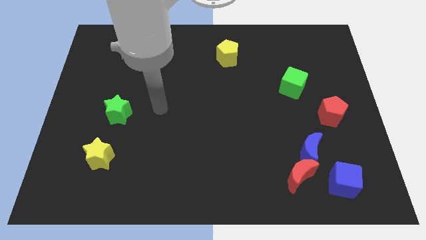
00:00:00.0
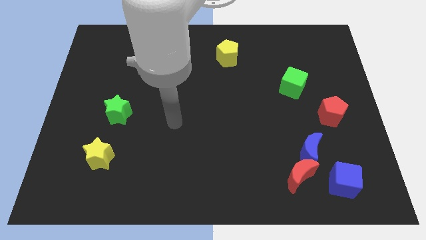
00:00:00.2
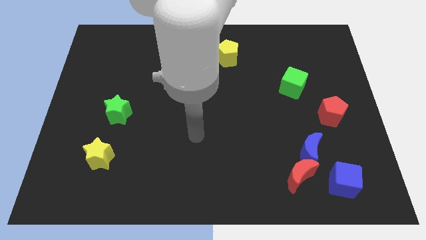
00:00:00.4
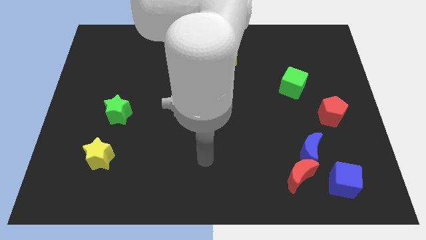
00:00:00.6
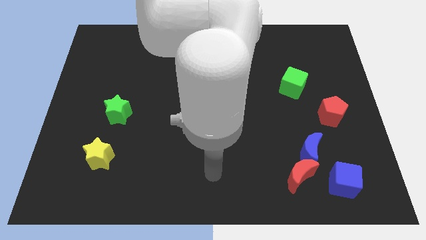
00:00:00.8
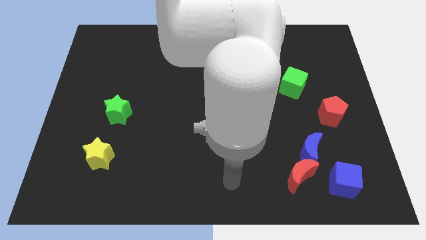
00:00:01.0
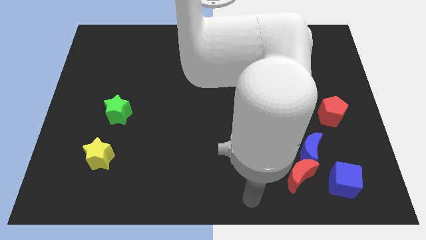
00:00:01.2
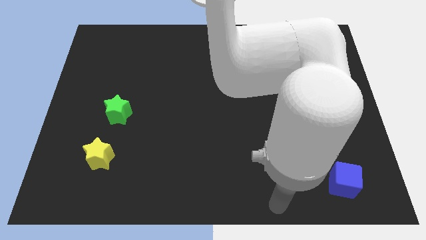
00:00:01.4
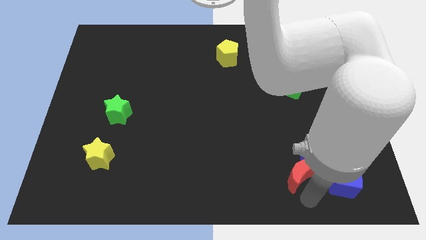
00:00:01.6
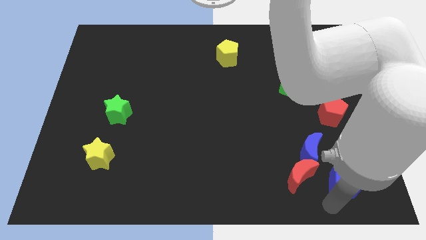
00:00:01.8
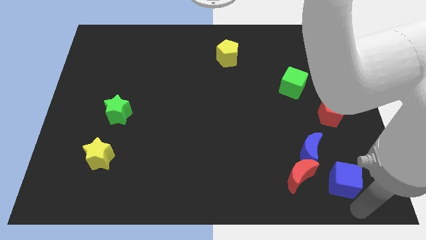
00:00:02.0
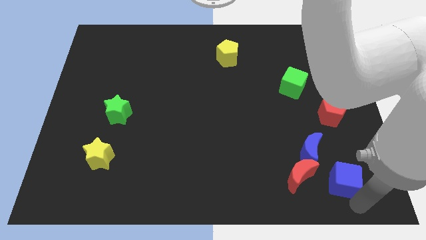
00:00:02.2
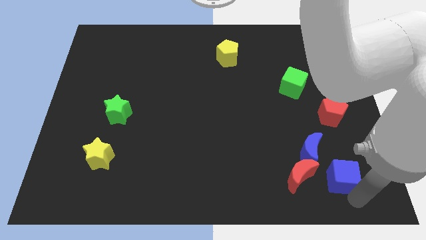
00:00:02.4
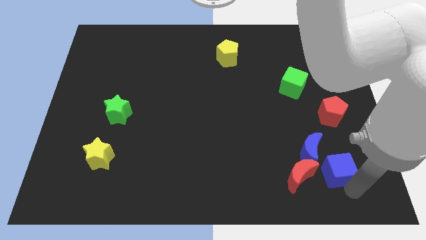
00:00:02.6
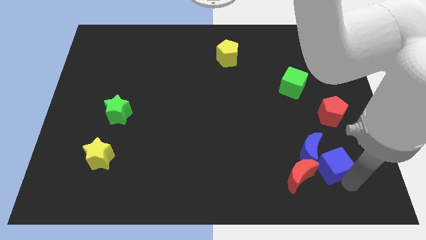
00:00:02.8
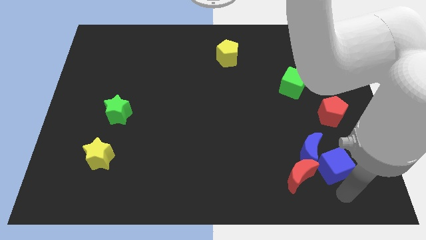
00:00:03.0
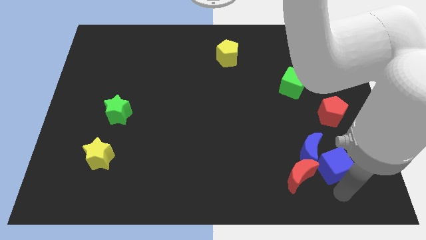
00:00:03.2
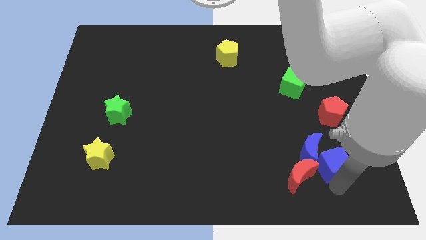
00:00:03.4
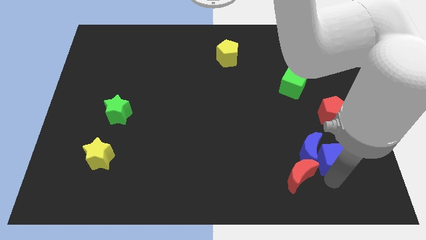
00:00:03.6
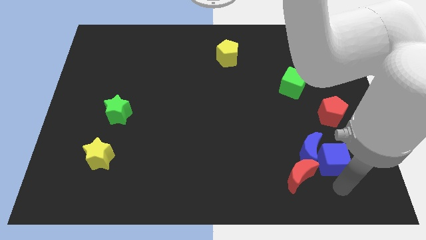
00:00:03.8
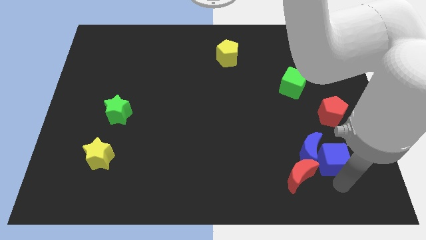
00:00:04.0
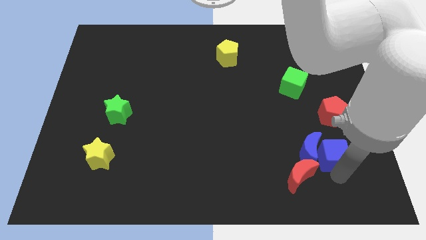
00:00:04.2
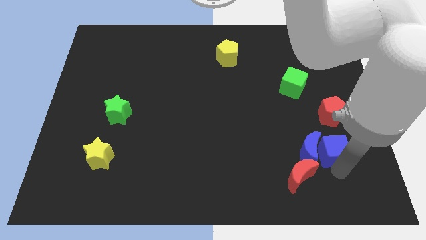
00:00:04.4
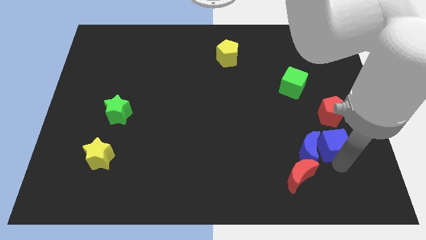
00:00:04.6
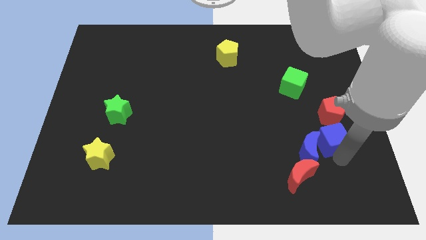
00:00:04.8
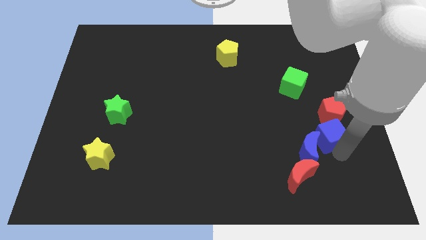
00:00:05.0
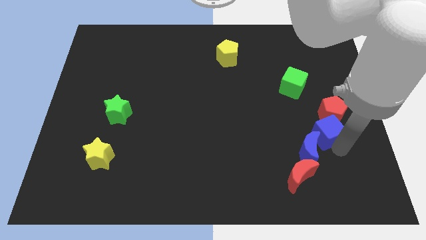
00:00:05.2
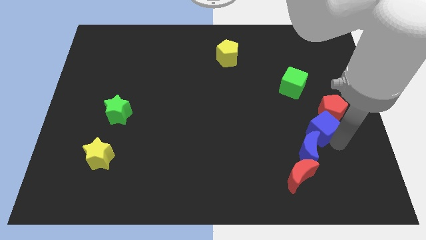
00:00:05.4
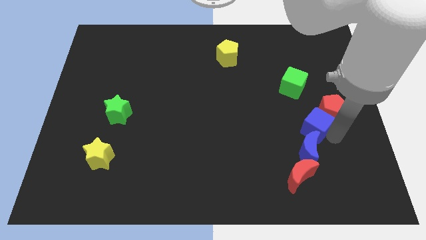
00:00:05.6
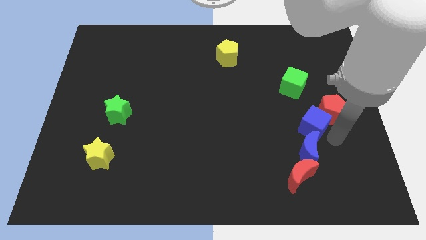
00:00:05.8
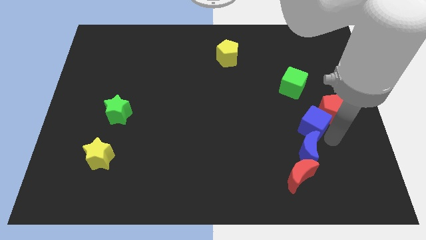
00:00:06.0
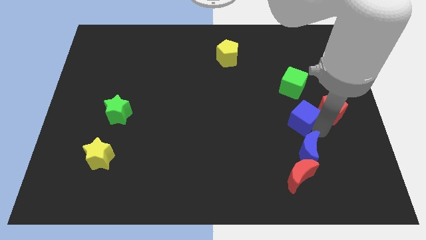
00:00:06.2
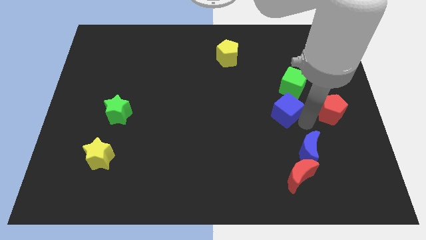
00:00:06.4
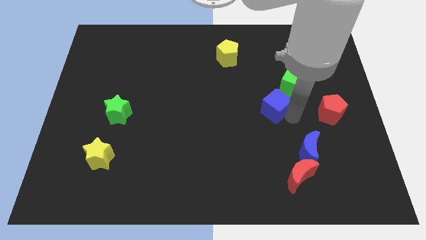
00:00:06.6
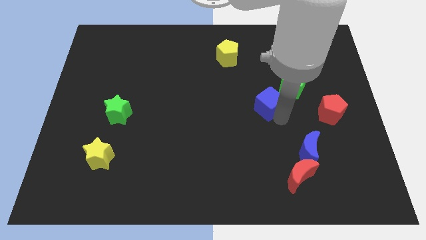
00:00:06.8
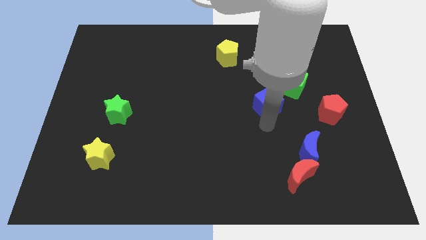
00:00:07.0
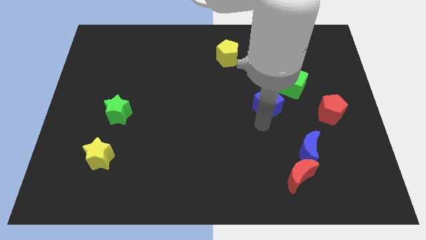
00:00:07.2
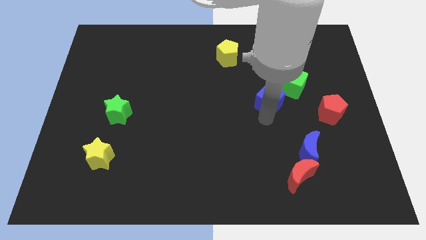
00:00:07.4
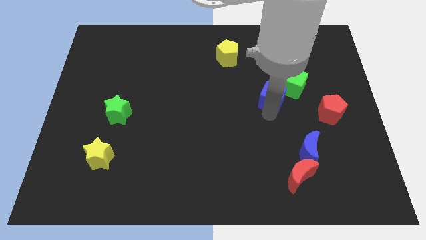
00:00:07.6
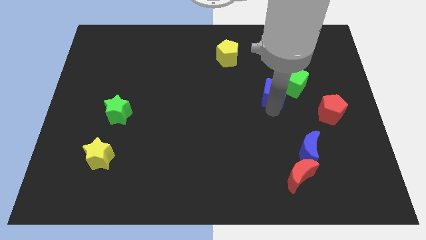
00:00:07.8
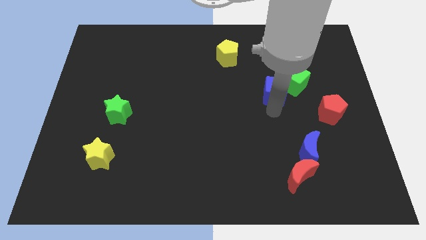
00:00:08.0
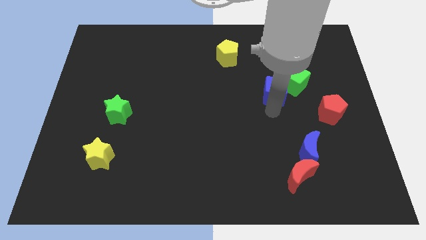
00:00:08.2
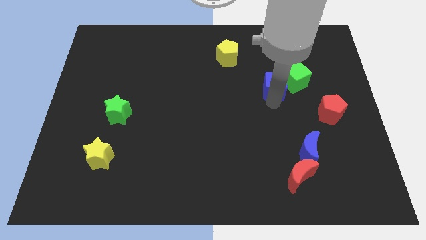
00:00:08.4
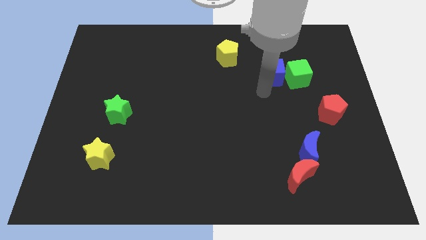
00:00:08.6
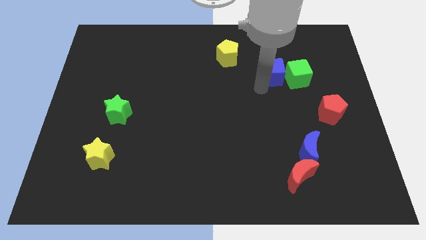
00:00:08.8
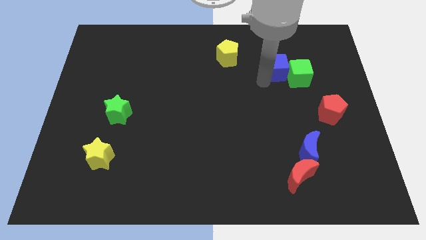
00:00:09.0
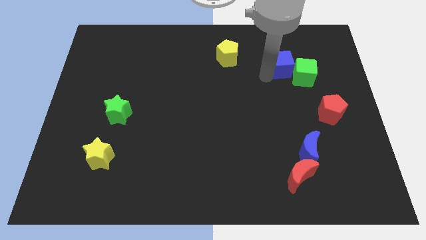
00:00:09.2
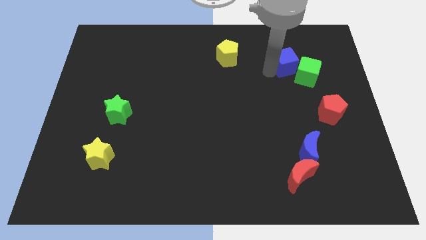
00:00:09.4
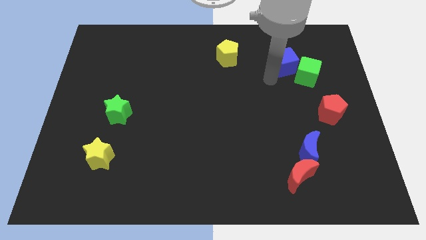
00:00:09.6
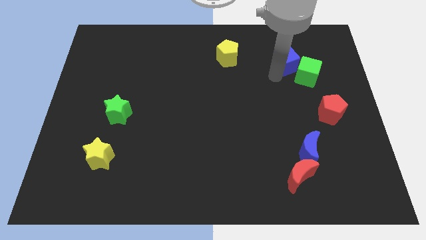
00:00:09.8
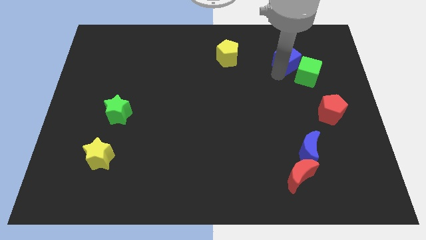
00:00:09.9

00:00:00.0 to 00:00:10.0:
put the blue cube to the top side of the green cube

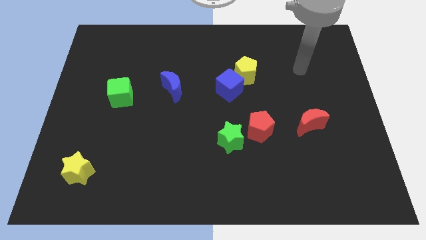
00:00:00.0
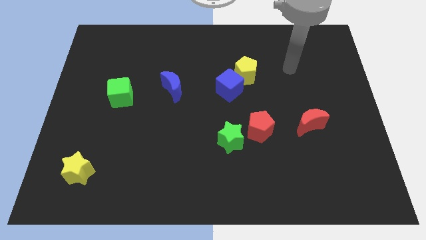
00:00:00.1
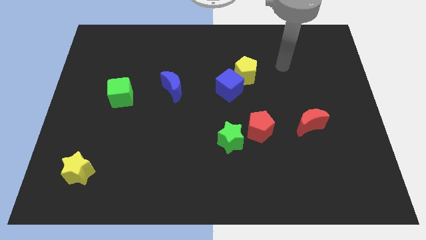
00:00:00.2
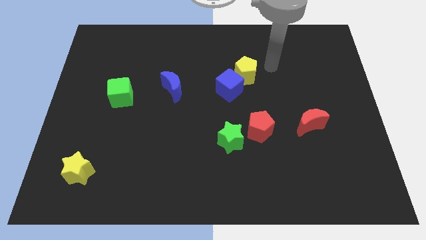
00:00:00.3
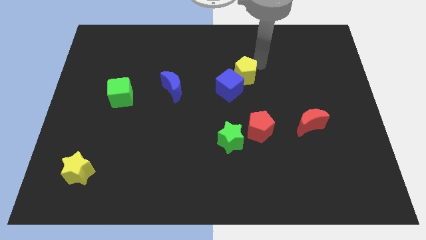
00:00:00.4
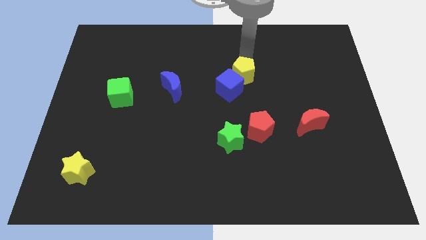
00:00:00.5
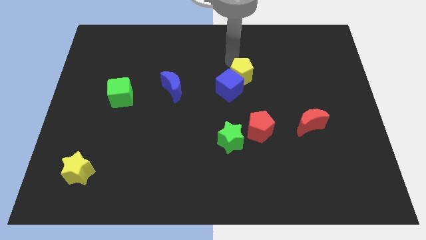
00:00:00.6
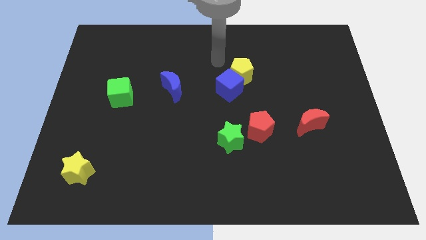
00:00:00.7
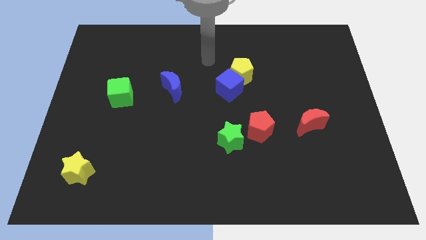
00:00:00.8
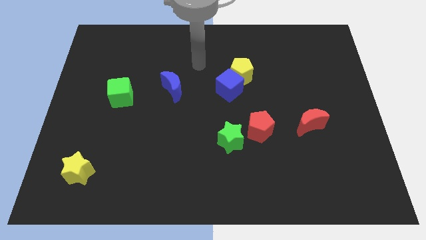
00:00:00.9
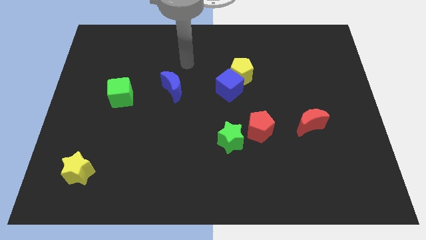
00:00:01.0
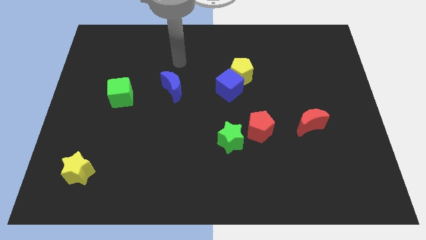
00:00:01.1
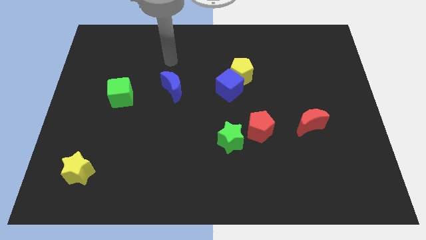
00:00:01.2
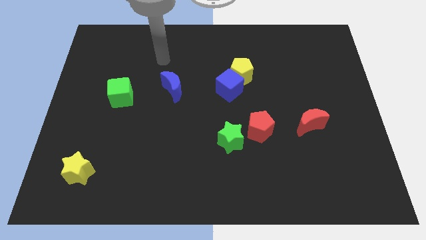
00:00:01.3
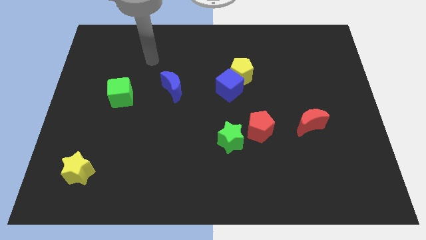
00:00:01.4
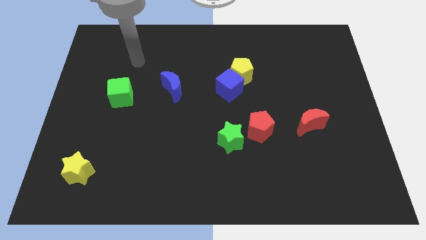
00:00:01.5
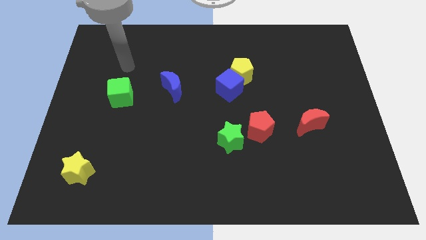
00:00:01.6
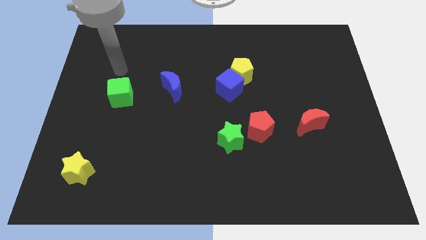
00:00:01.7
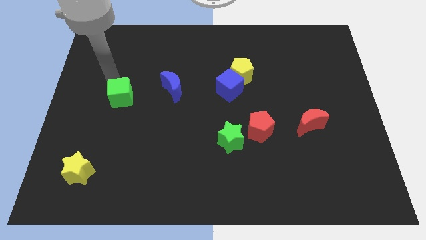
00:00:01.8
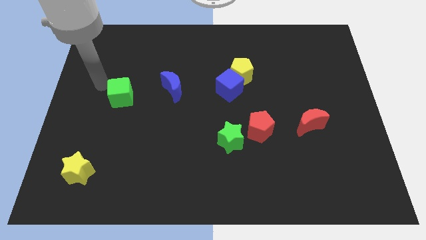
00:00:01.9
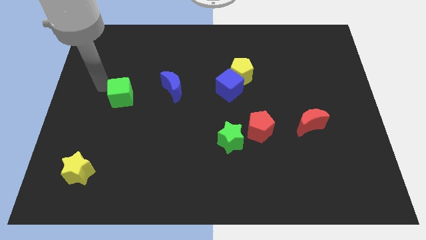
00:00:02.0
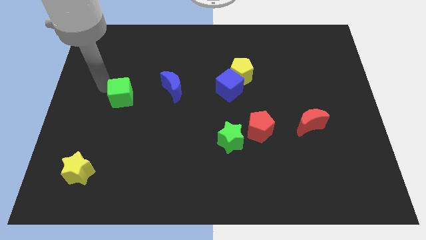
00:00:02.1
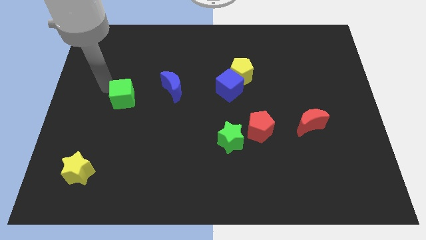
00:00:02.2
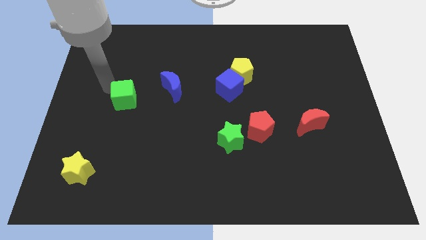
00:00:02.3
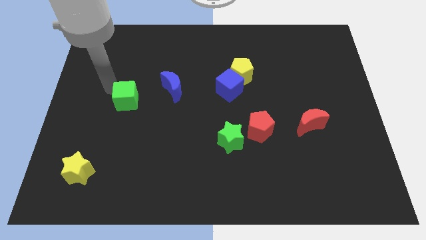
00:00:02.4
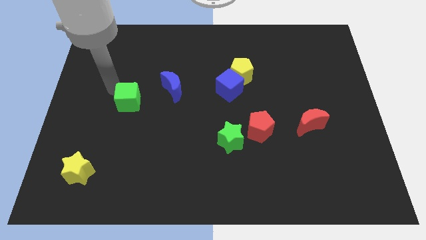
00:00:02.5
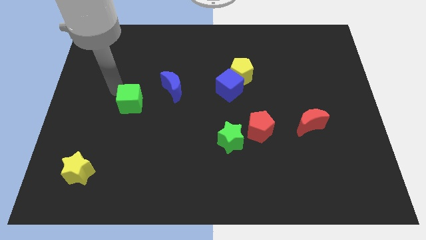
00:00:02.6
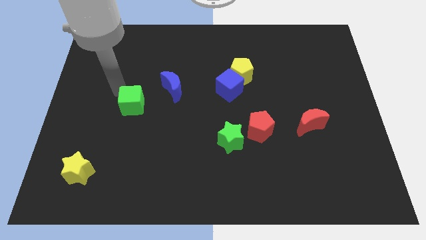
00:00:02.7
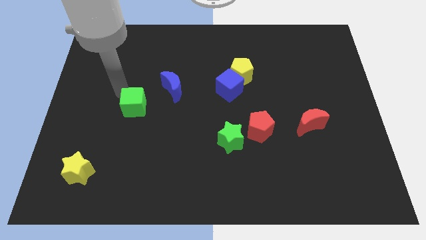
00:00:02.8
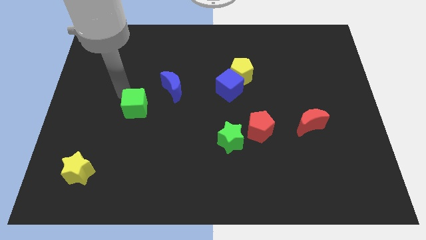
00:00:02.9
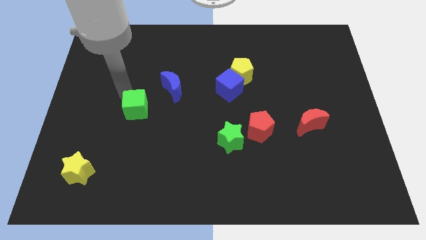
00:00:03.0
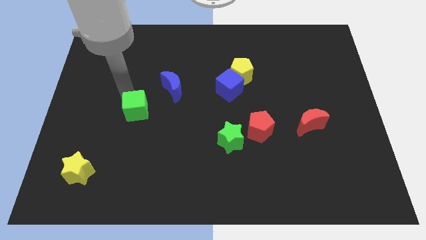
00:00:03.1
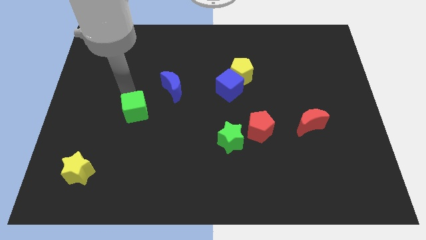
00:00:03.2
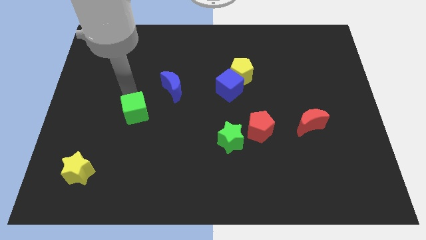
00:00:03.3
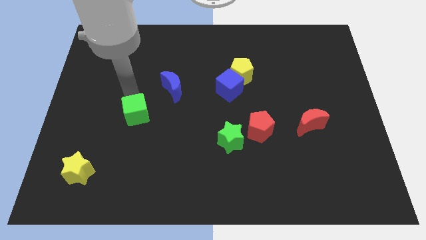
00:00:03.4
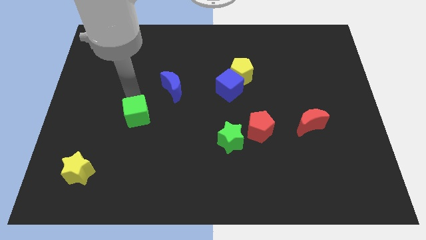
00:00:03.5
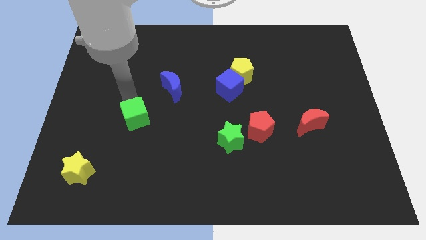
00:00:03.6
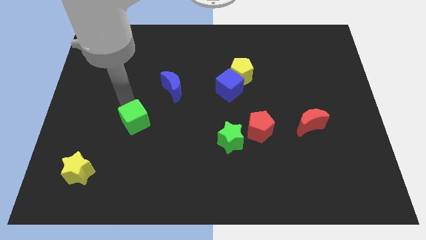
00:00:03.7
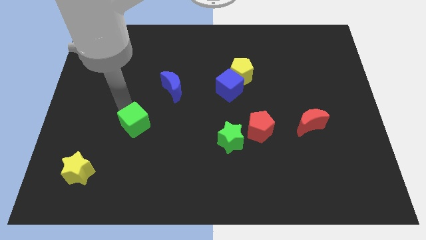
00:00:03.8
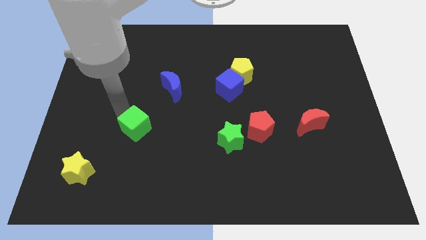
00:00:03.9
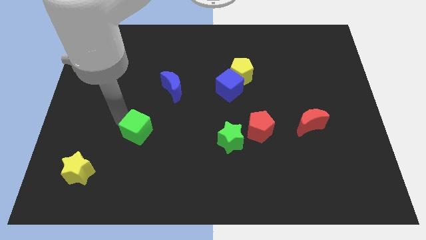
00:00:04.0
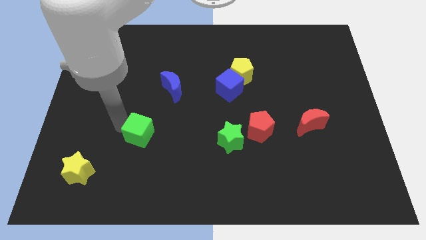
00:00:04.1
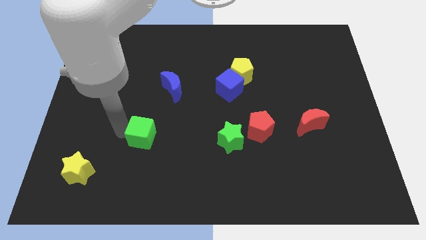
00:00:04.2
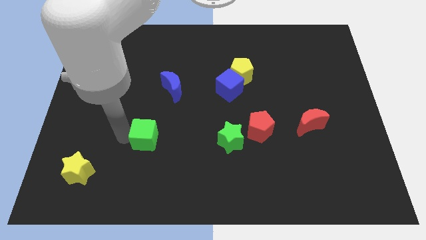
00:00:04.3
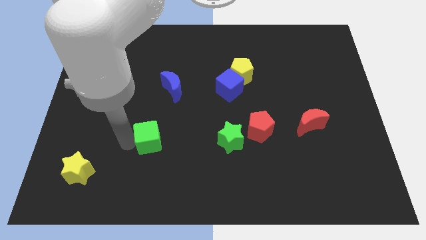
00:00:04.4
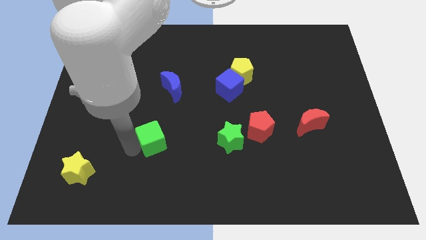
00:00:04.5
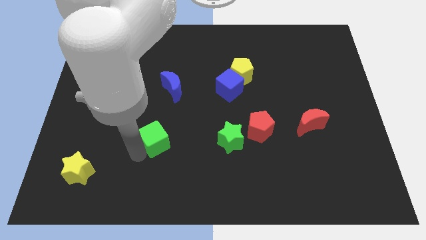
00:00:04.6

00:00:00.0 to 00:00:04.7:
put the green cube to the bottom side of the blue moon
